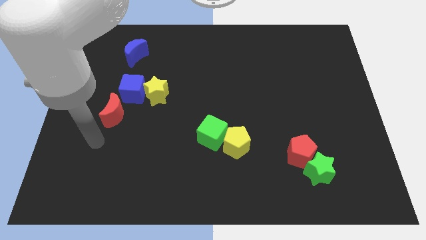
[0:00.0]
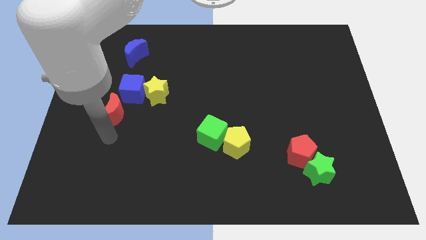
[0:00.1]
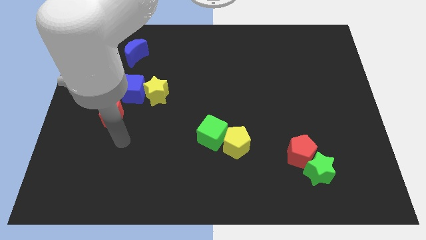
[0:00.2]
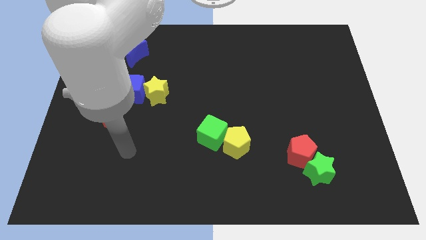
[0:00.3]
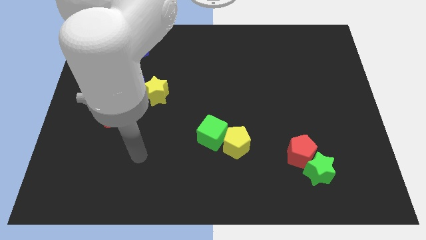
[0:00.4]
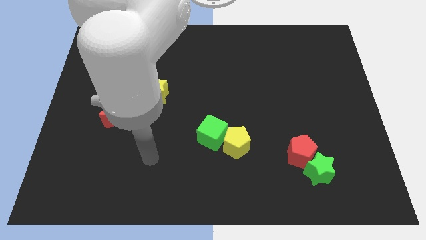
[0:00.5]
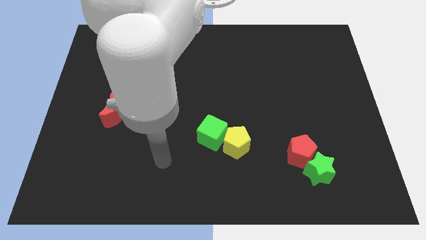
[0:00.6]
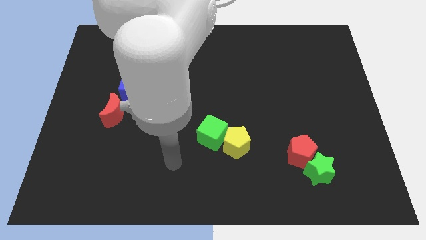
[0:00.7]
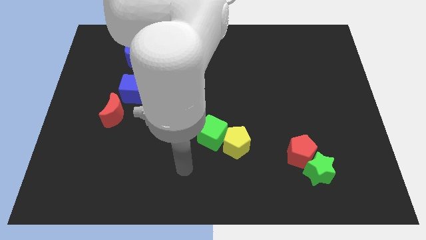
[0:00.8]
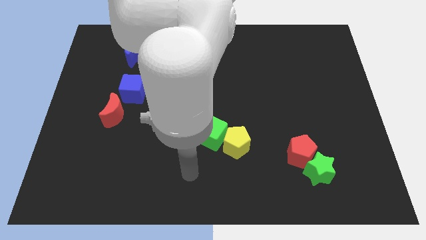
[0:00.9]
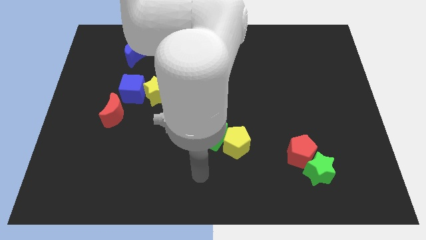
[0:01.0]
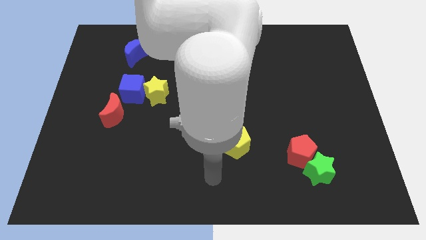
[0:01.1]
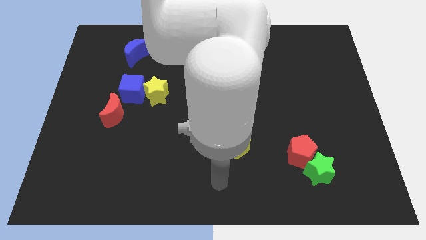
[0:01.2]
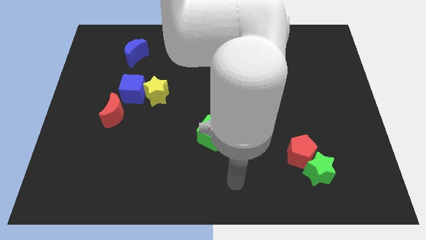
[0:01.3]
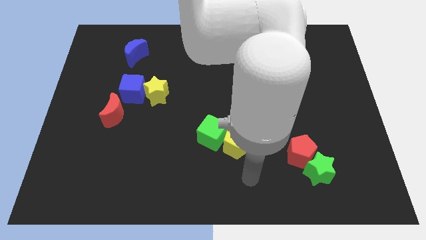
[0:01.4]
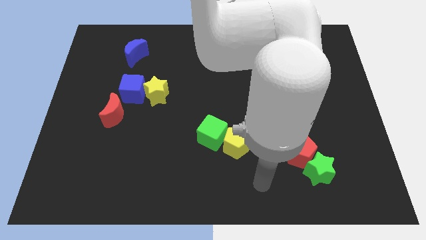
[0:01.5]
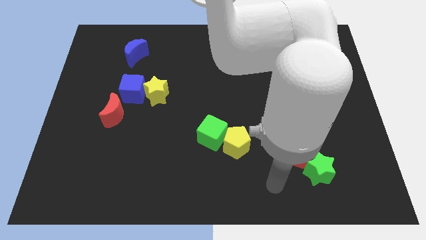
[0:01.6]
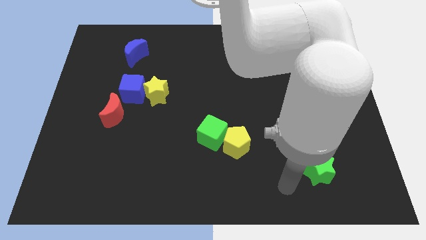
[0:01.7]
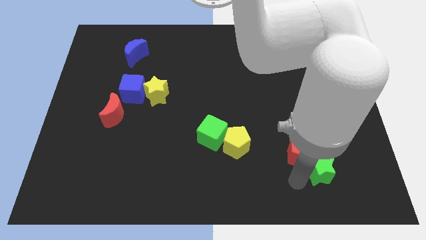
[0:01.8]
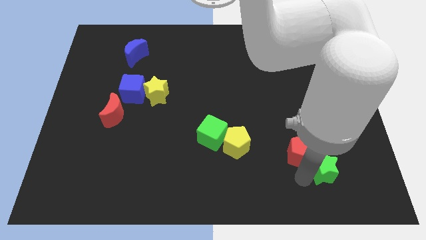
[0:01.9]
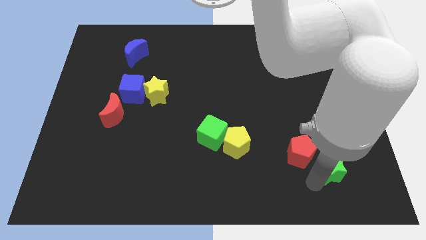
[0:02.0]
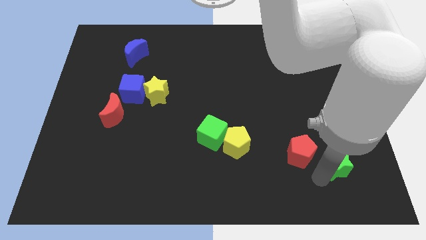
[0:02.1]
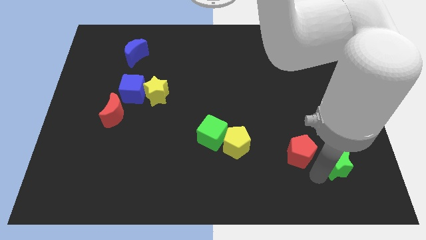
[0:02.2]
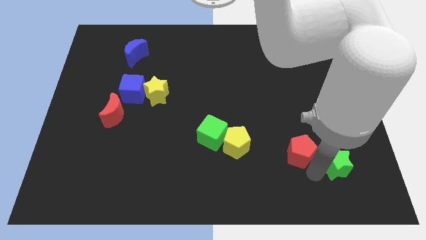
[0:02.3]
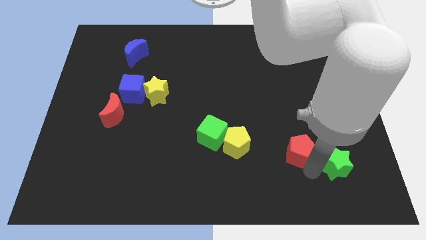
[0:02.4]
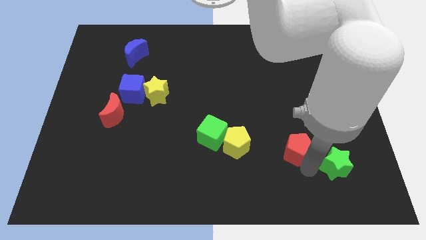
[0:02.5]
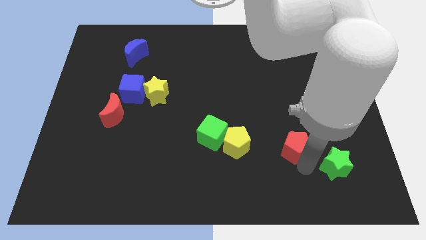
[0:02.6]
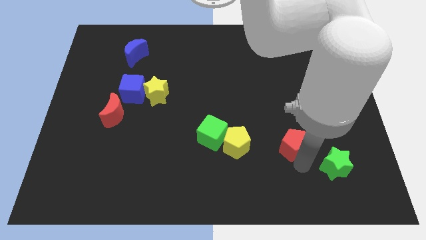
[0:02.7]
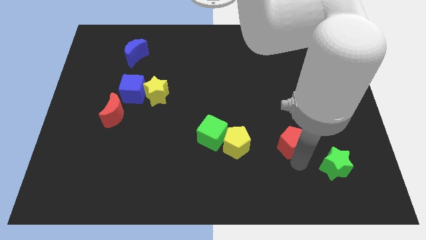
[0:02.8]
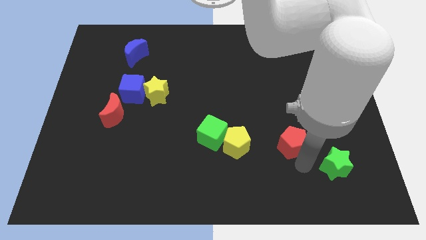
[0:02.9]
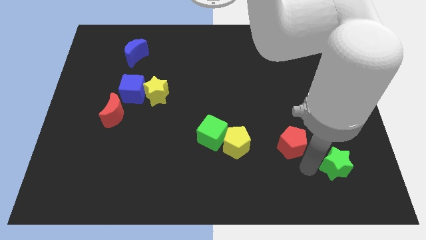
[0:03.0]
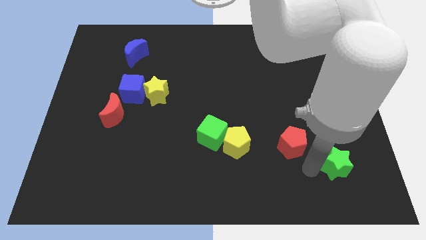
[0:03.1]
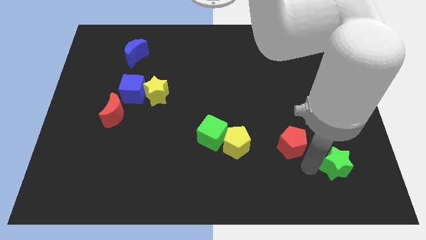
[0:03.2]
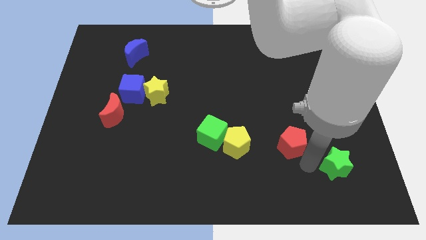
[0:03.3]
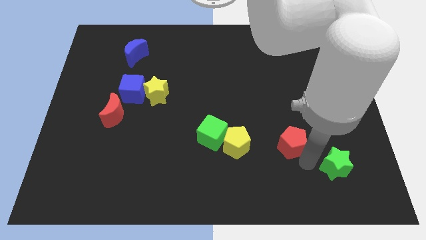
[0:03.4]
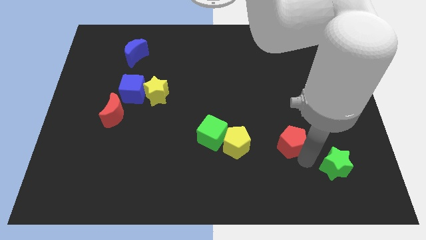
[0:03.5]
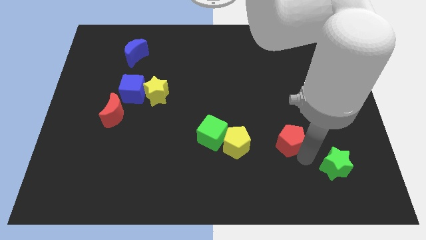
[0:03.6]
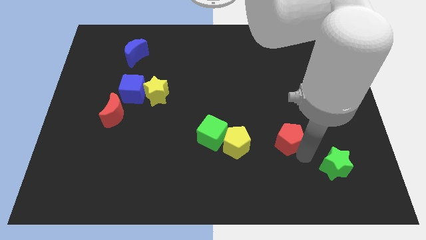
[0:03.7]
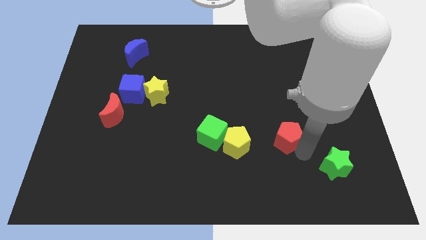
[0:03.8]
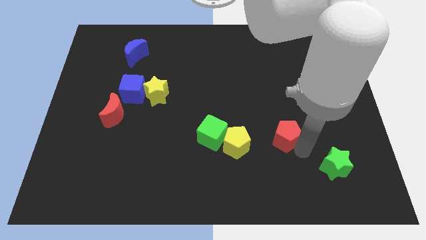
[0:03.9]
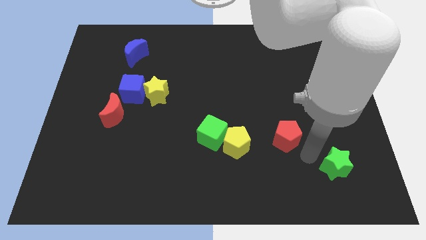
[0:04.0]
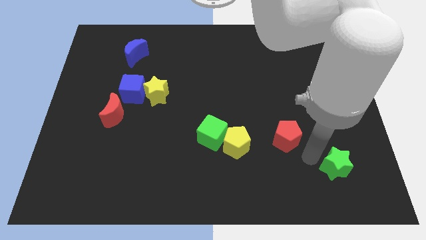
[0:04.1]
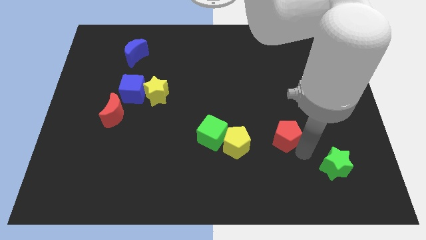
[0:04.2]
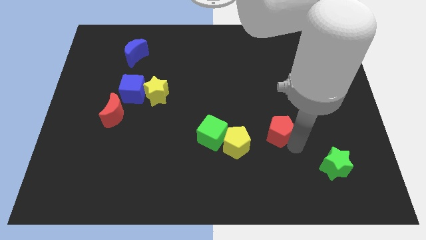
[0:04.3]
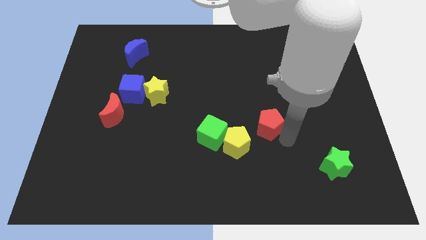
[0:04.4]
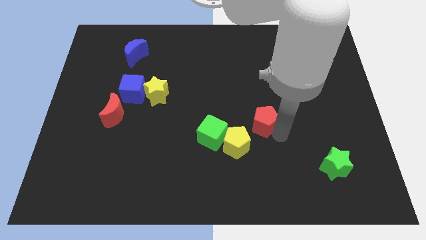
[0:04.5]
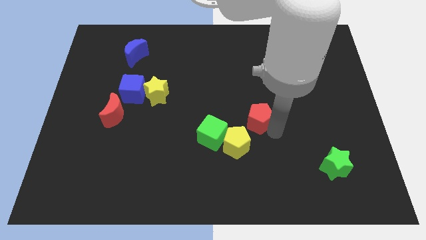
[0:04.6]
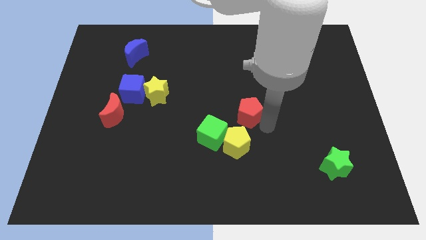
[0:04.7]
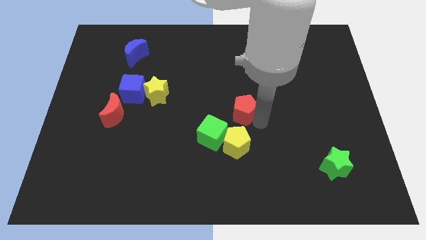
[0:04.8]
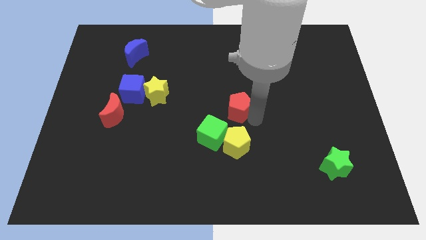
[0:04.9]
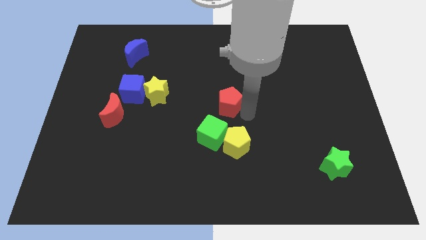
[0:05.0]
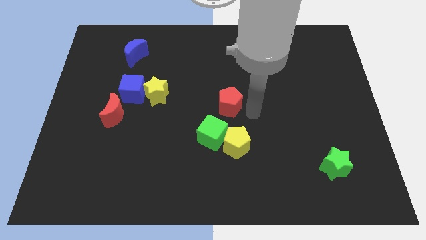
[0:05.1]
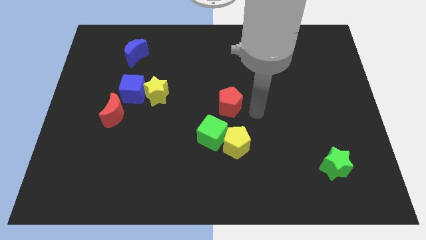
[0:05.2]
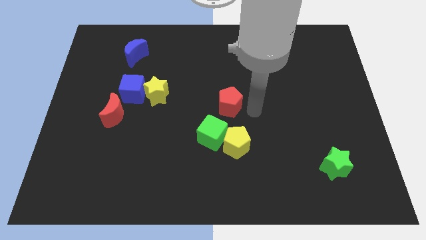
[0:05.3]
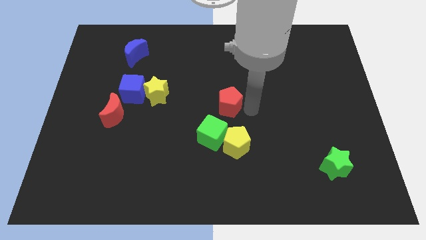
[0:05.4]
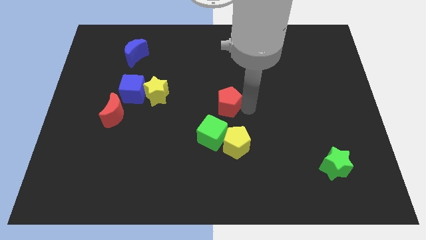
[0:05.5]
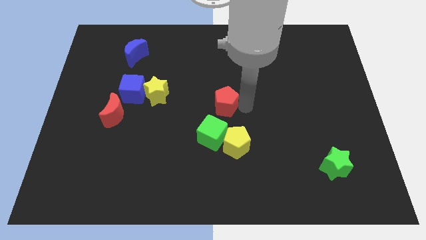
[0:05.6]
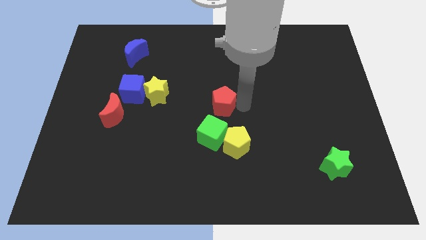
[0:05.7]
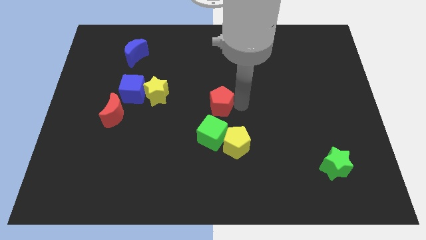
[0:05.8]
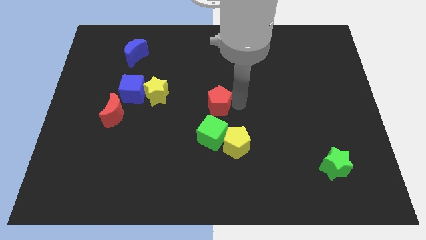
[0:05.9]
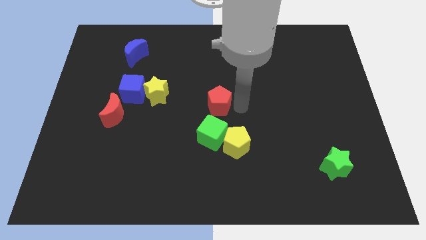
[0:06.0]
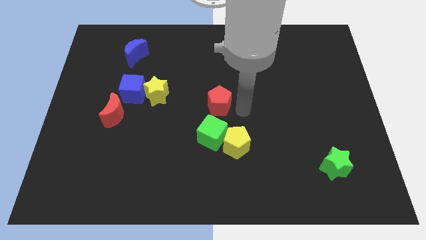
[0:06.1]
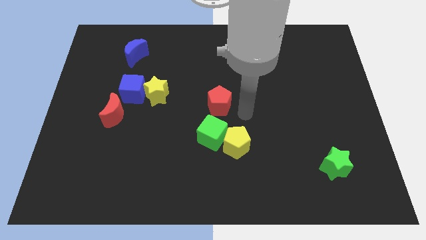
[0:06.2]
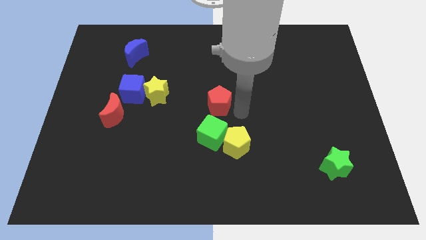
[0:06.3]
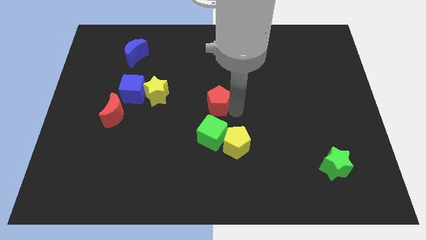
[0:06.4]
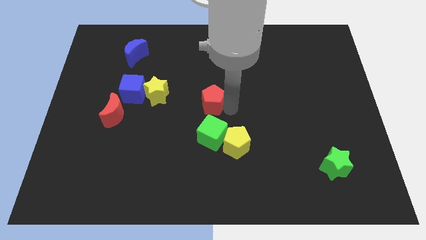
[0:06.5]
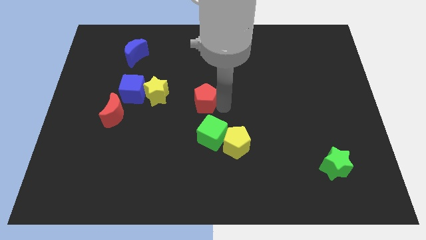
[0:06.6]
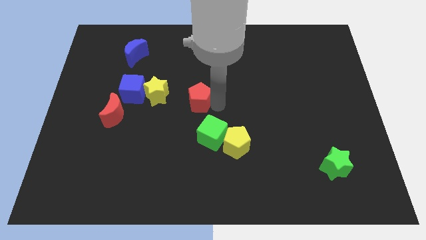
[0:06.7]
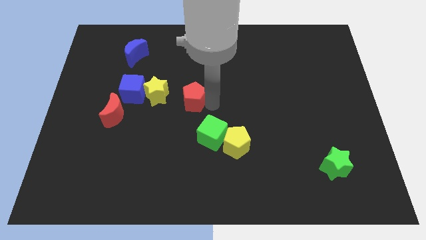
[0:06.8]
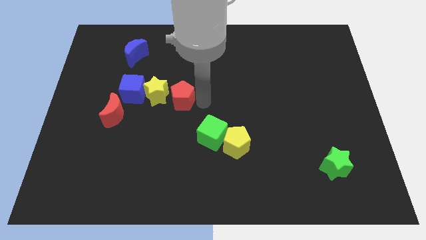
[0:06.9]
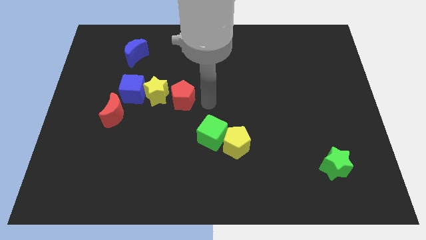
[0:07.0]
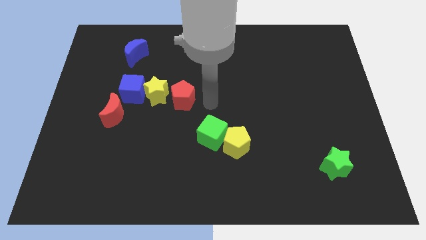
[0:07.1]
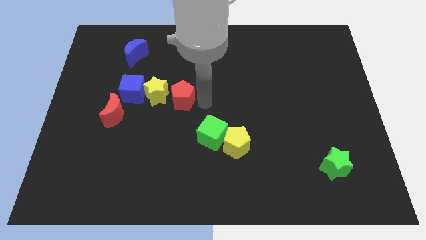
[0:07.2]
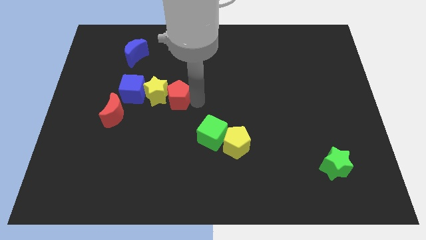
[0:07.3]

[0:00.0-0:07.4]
move the red pentagon towards the yellow star
